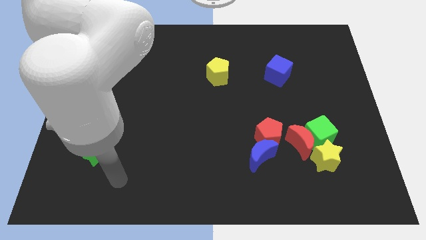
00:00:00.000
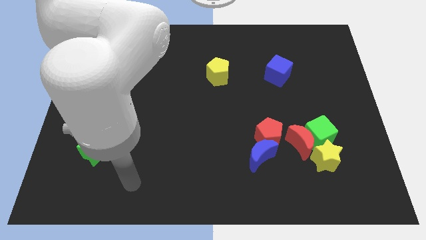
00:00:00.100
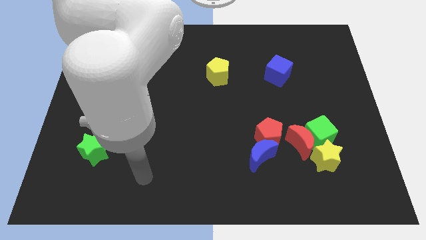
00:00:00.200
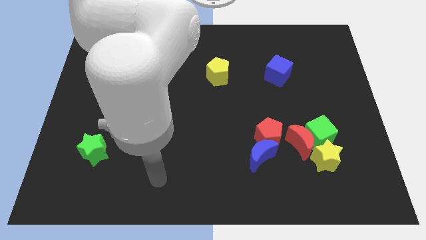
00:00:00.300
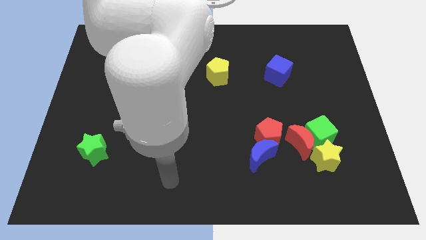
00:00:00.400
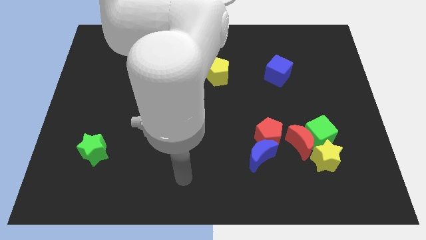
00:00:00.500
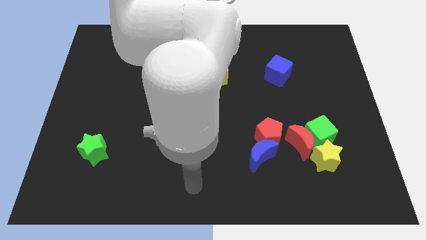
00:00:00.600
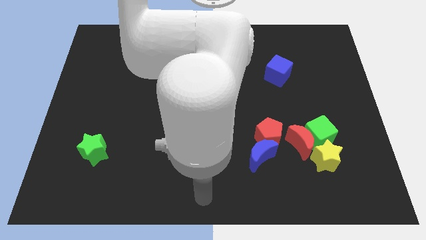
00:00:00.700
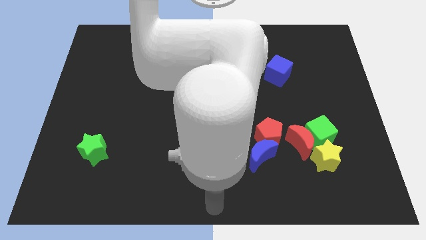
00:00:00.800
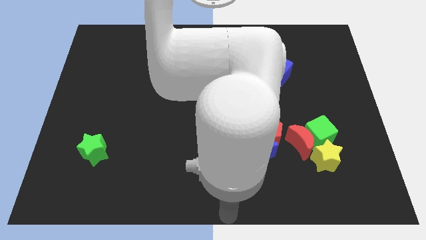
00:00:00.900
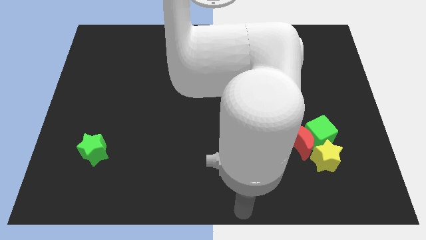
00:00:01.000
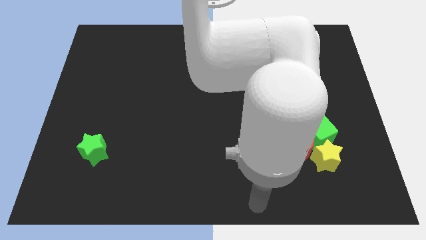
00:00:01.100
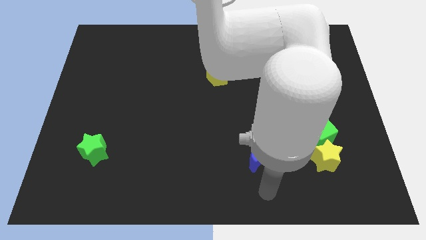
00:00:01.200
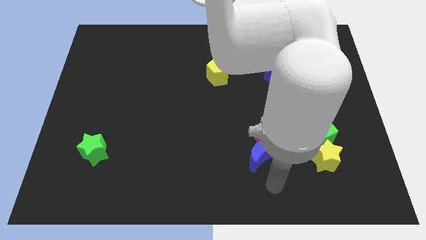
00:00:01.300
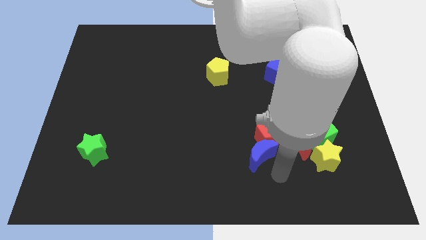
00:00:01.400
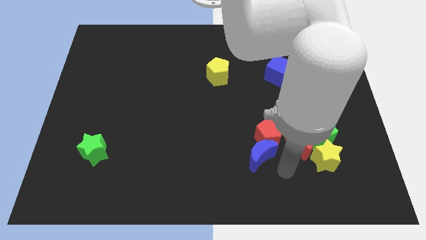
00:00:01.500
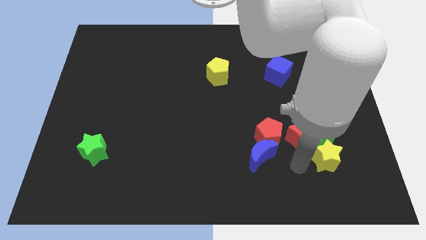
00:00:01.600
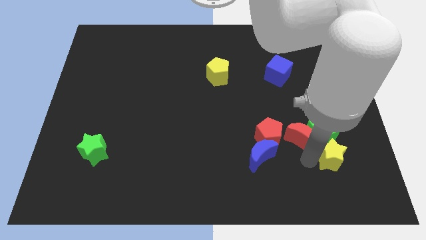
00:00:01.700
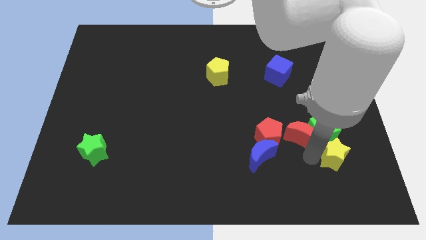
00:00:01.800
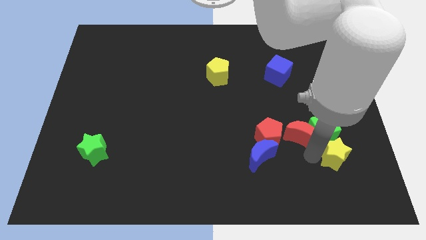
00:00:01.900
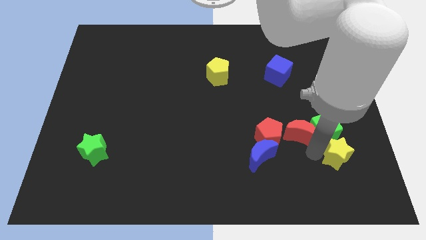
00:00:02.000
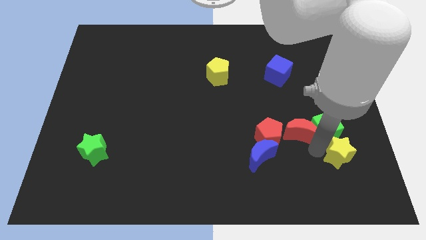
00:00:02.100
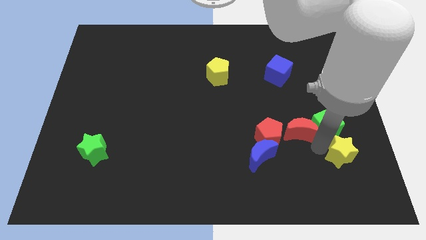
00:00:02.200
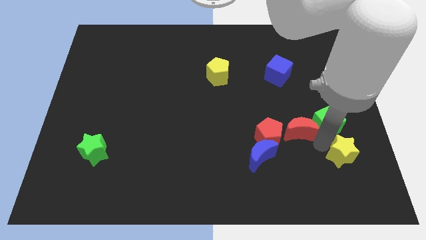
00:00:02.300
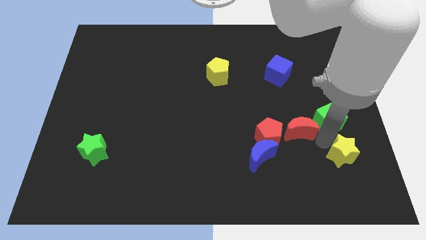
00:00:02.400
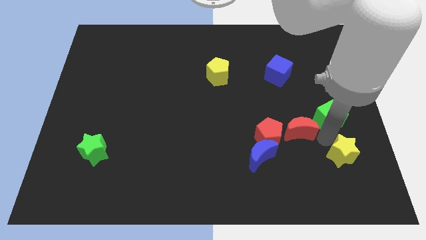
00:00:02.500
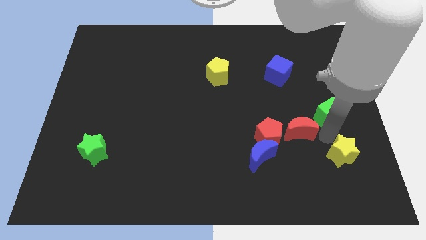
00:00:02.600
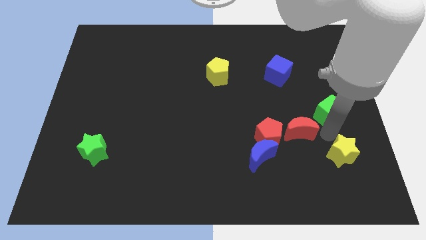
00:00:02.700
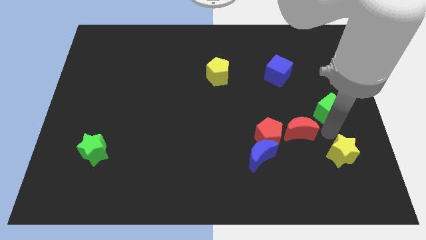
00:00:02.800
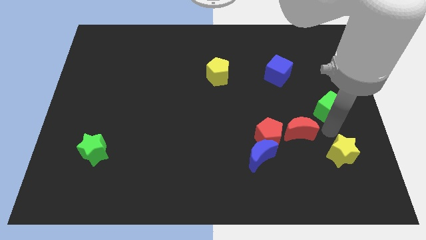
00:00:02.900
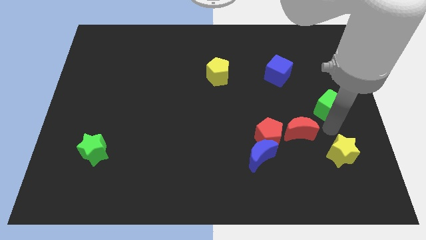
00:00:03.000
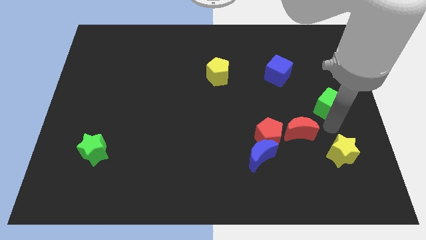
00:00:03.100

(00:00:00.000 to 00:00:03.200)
pull the green cube apart from the red moon and yellow star

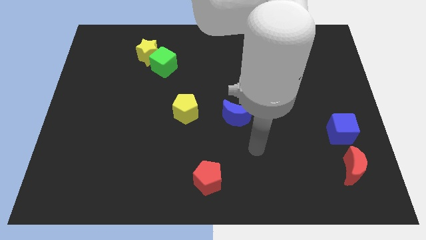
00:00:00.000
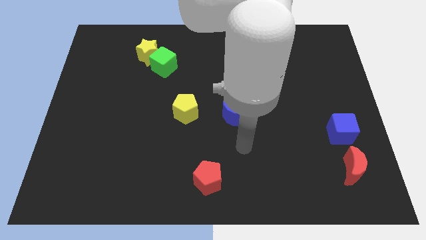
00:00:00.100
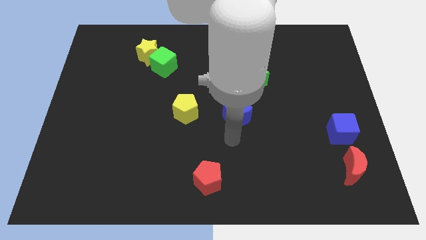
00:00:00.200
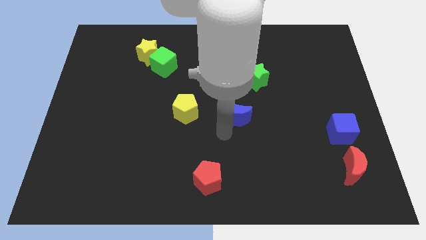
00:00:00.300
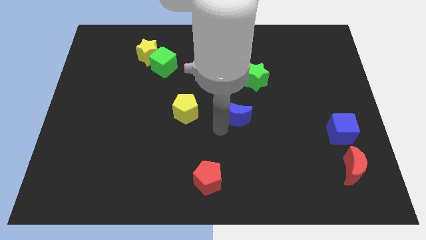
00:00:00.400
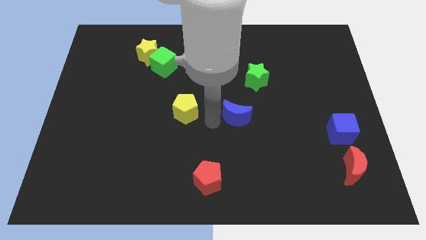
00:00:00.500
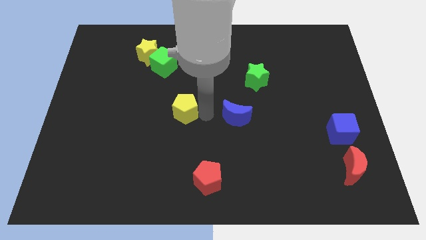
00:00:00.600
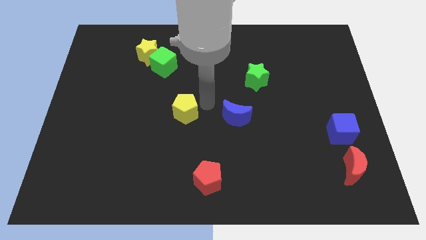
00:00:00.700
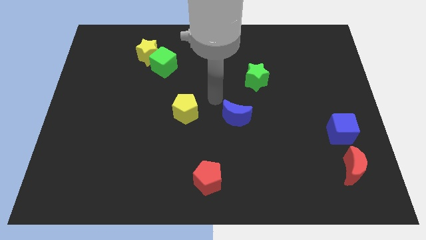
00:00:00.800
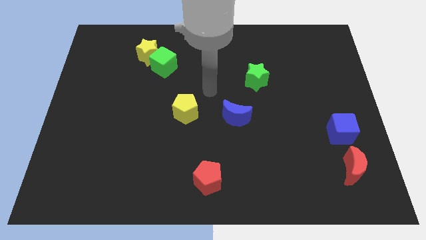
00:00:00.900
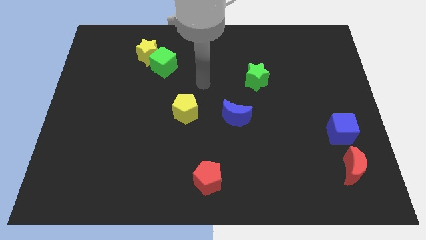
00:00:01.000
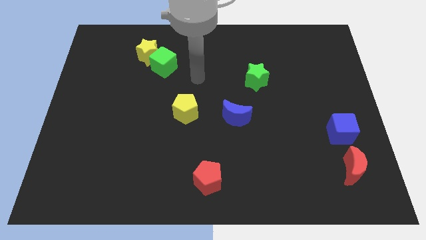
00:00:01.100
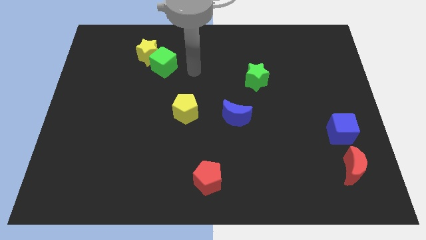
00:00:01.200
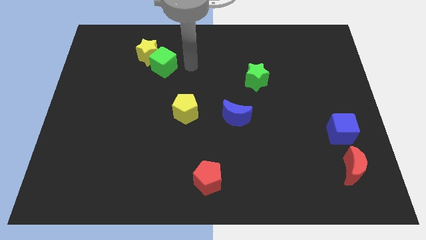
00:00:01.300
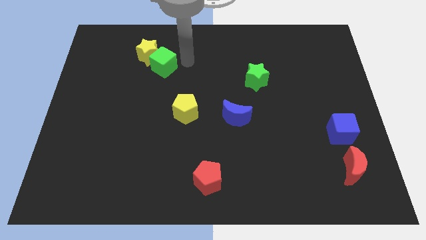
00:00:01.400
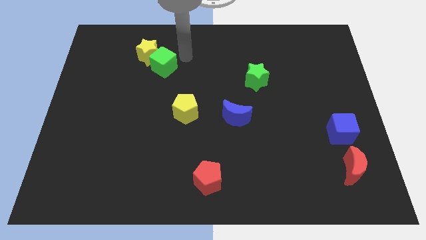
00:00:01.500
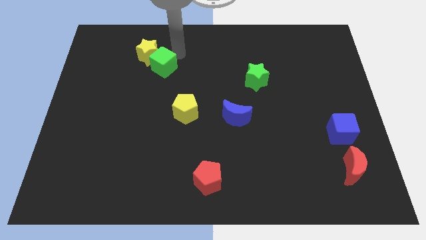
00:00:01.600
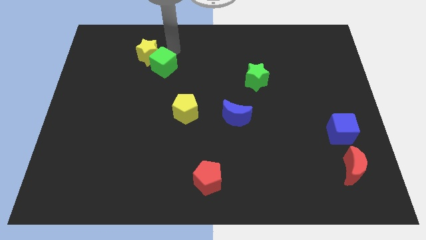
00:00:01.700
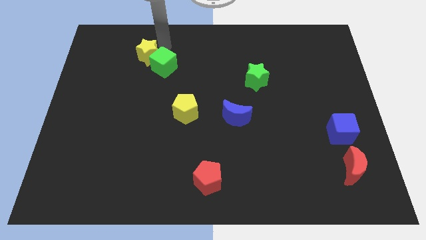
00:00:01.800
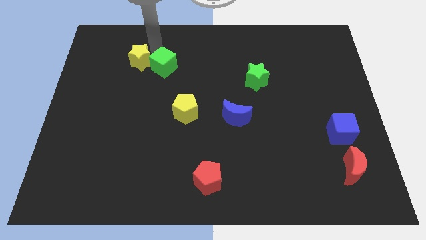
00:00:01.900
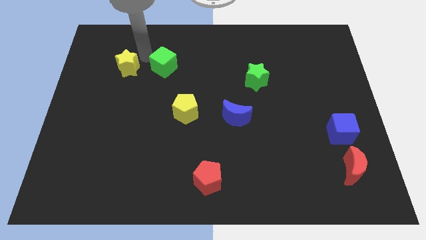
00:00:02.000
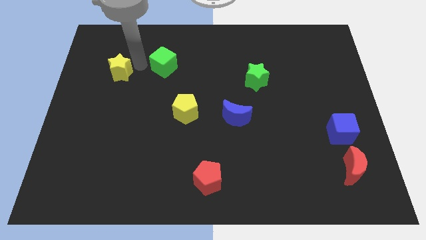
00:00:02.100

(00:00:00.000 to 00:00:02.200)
separate the green cube from the yellow star

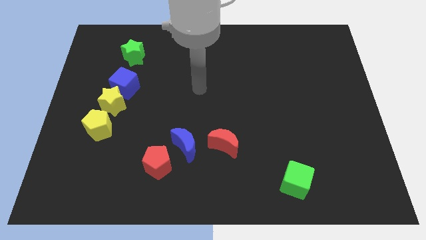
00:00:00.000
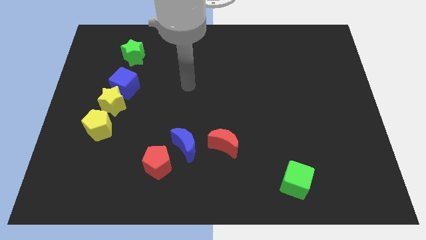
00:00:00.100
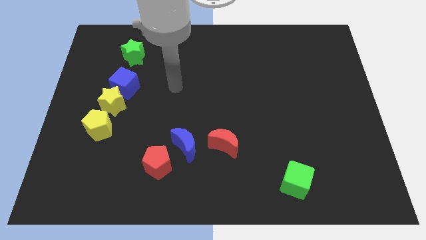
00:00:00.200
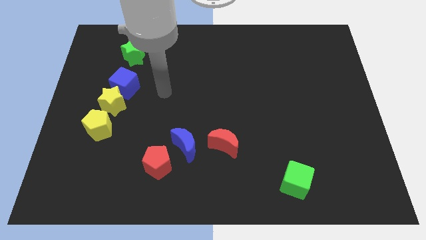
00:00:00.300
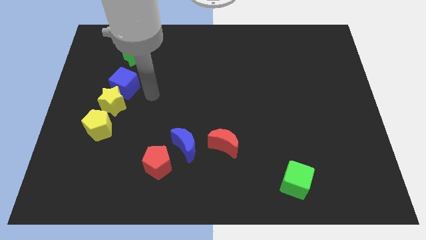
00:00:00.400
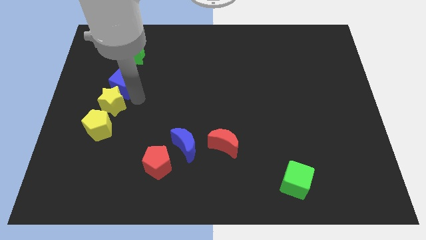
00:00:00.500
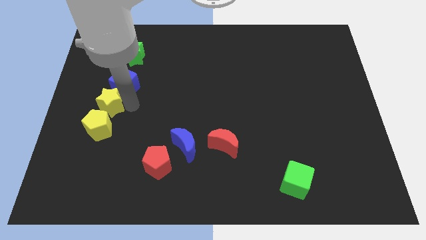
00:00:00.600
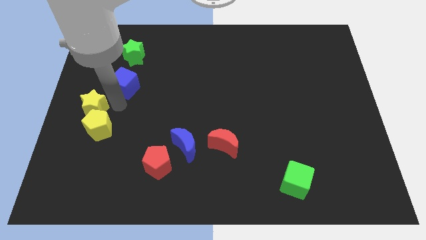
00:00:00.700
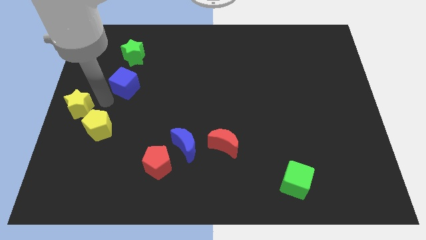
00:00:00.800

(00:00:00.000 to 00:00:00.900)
pull the blue cube apart from the yellow star

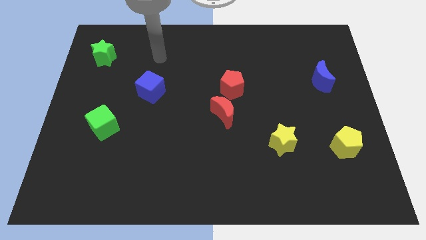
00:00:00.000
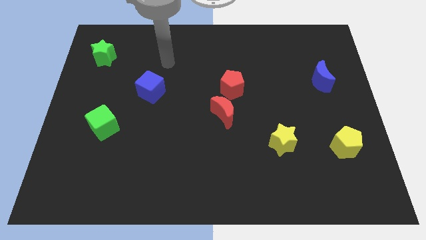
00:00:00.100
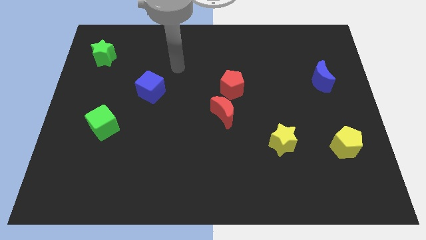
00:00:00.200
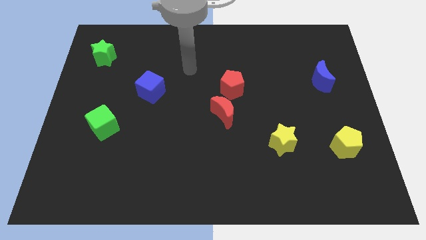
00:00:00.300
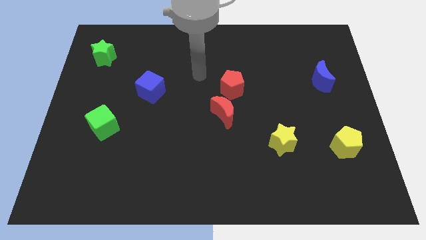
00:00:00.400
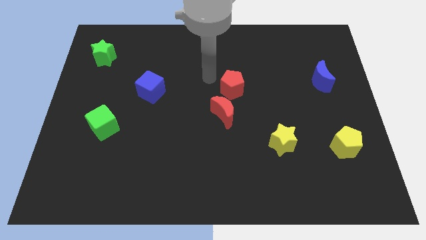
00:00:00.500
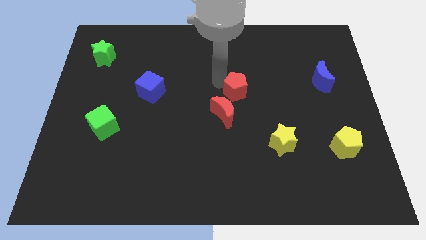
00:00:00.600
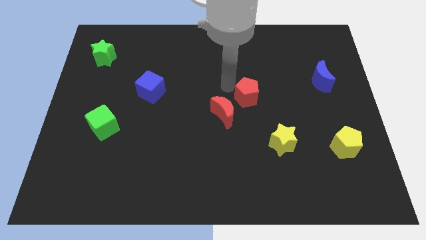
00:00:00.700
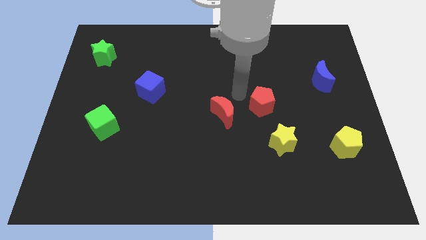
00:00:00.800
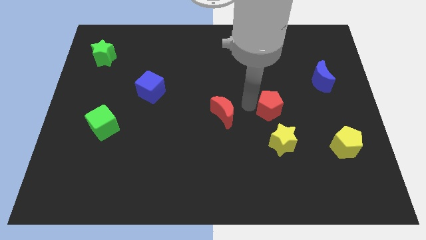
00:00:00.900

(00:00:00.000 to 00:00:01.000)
pull the red moon apart from the red pentagon

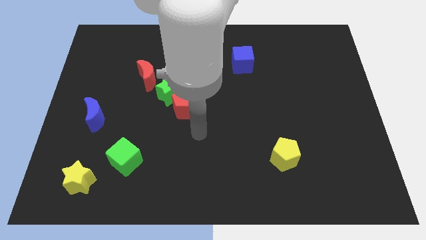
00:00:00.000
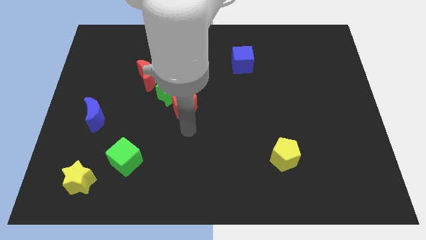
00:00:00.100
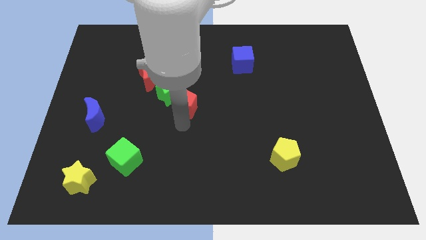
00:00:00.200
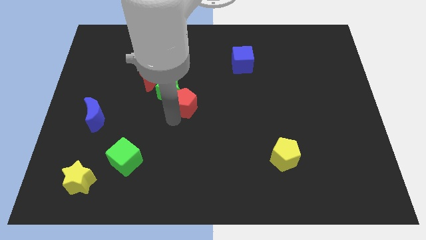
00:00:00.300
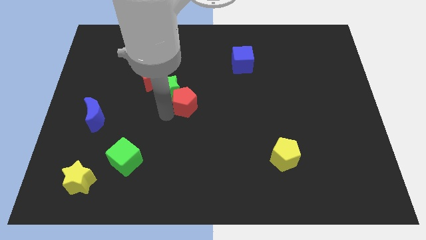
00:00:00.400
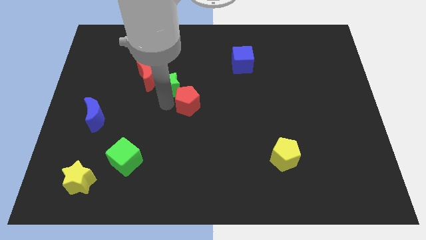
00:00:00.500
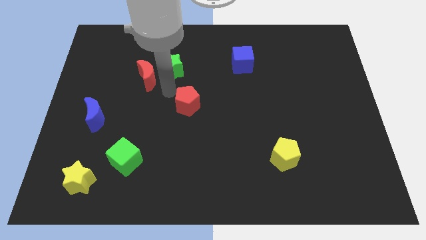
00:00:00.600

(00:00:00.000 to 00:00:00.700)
separate the red pentagon from the green star

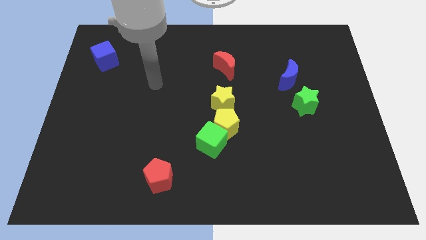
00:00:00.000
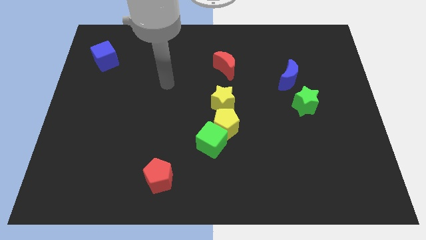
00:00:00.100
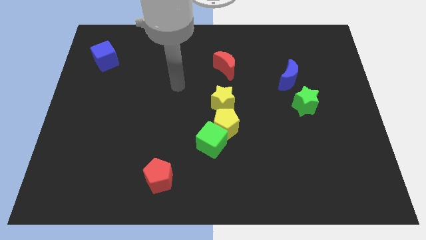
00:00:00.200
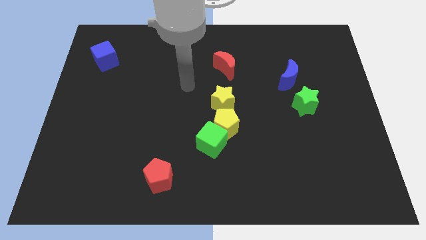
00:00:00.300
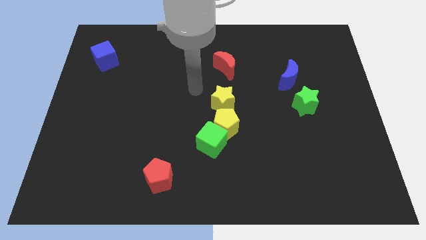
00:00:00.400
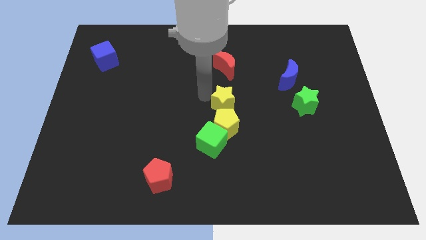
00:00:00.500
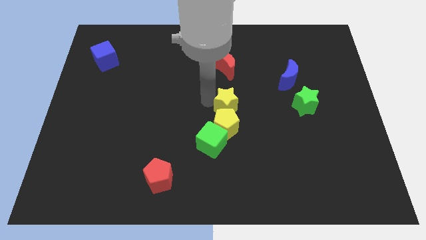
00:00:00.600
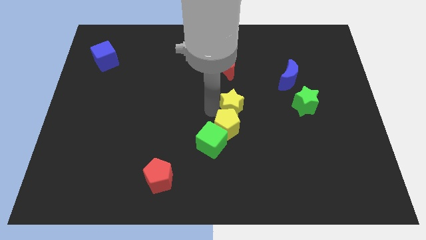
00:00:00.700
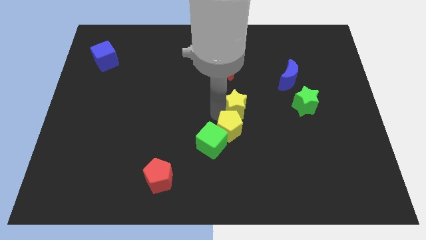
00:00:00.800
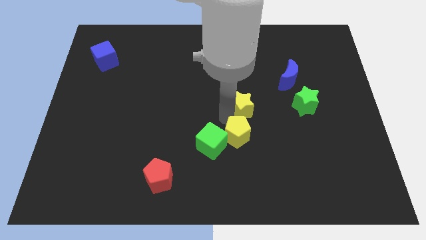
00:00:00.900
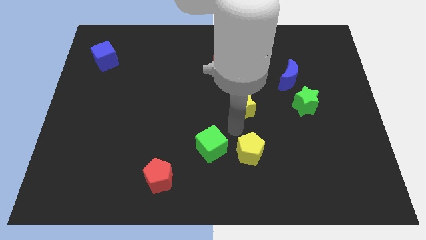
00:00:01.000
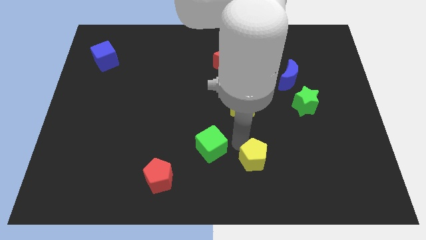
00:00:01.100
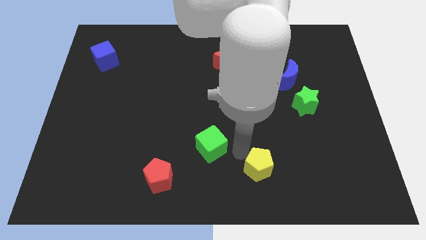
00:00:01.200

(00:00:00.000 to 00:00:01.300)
separate the green cube from the yellow pentagon

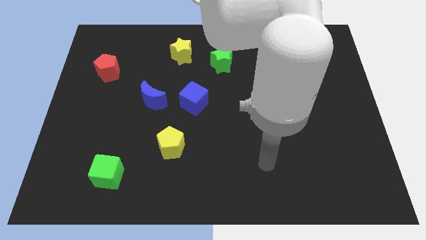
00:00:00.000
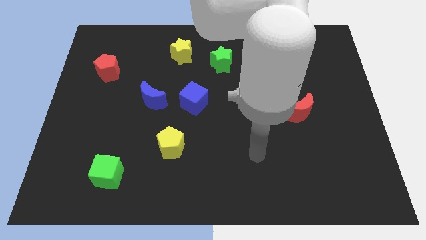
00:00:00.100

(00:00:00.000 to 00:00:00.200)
move the blue moon away from the blue cube
